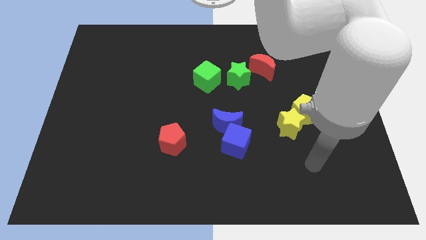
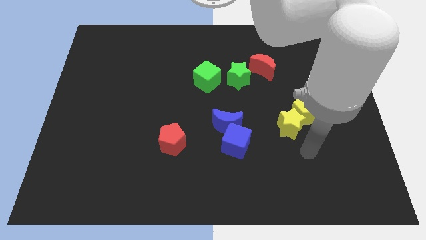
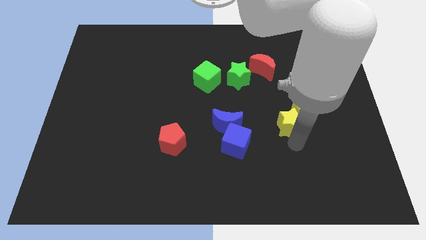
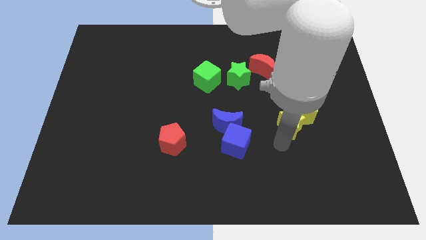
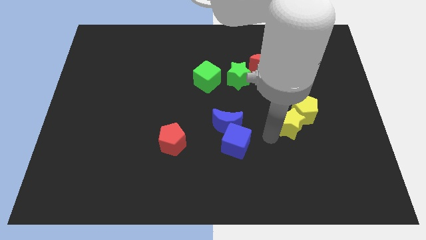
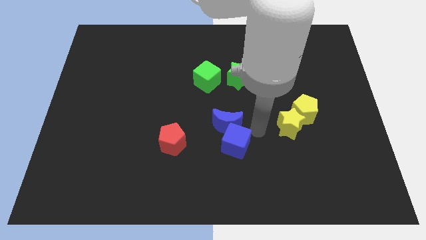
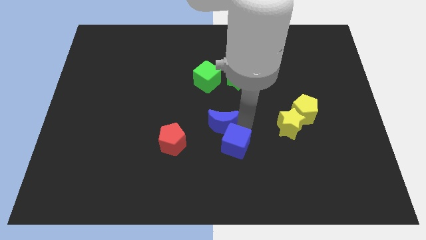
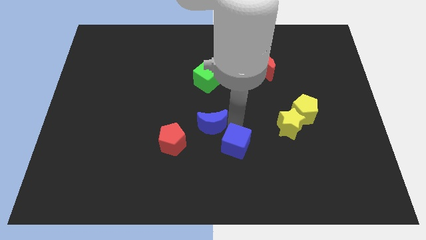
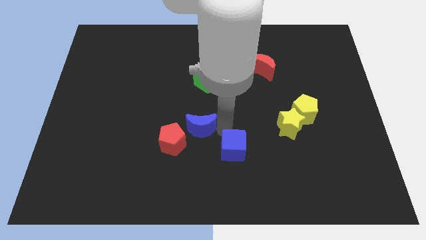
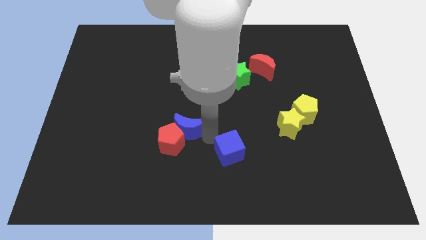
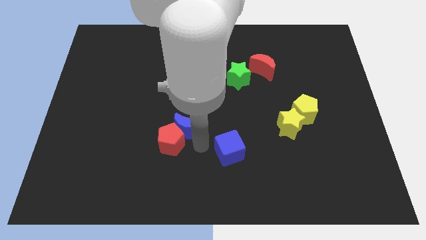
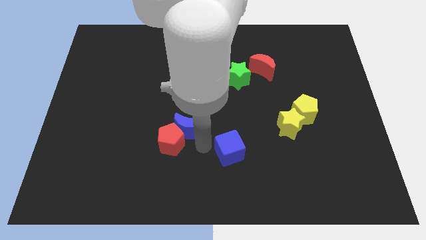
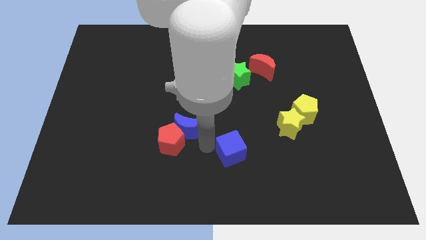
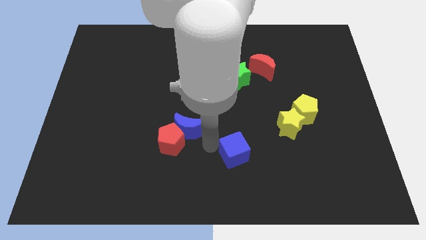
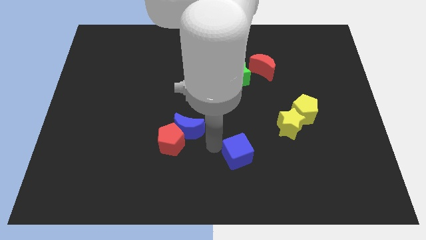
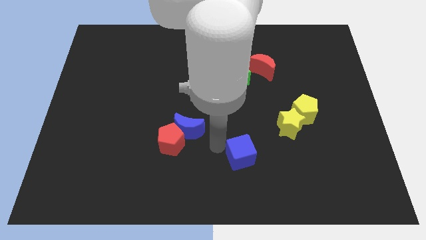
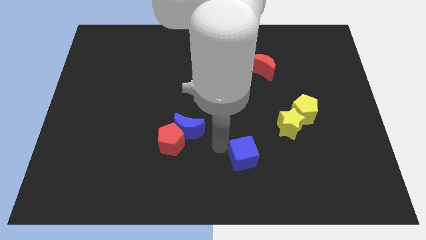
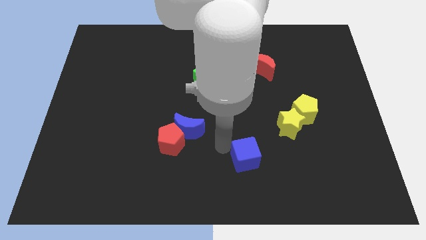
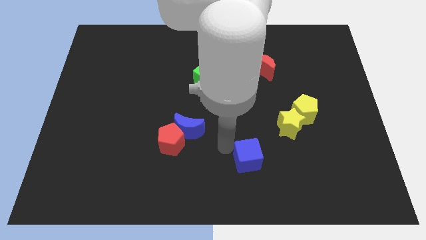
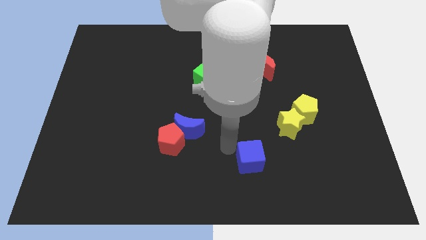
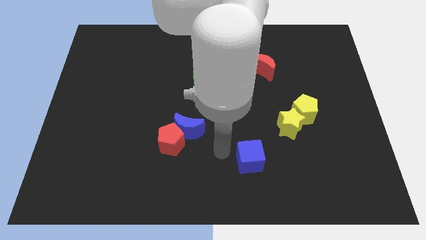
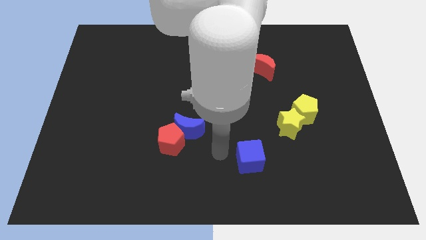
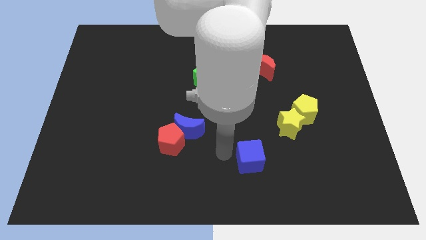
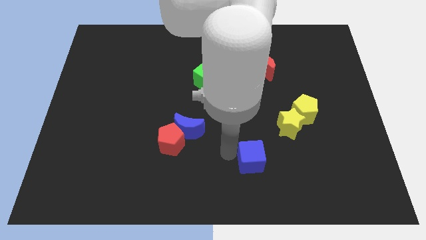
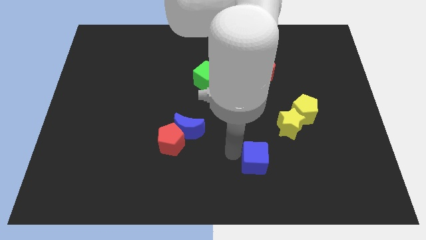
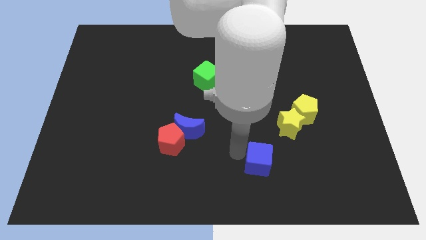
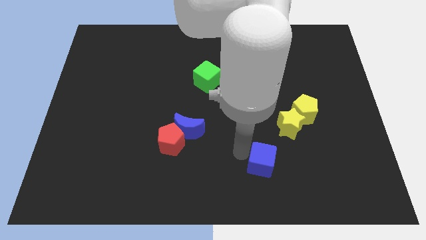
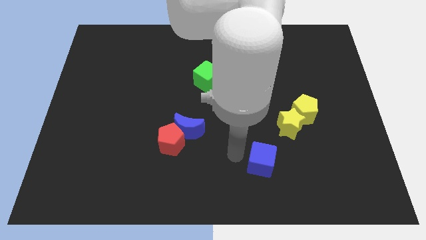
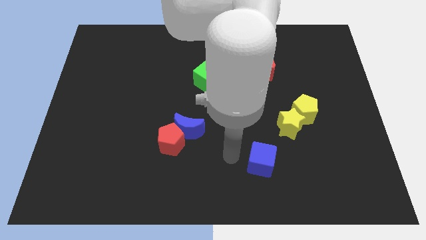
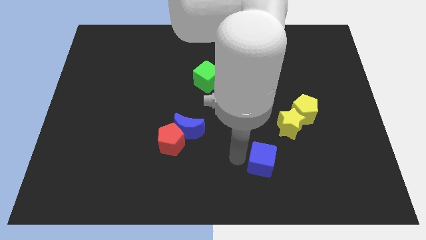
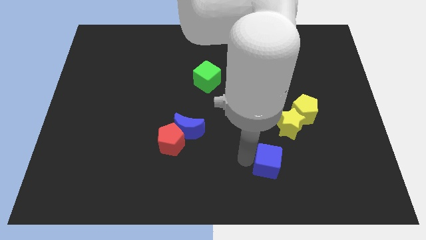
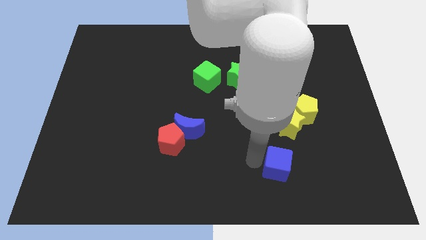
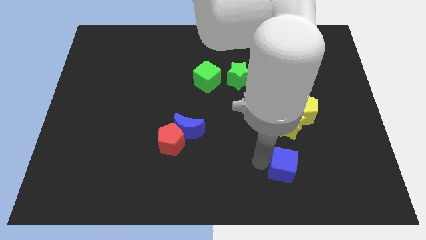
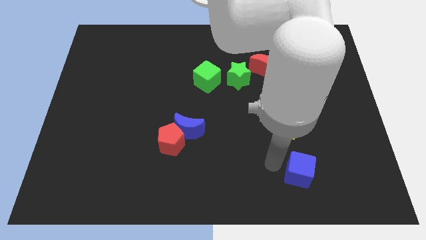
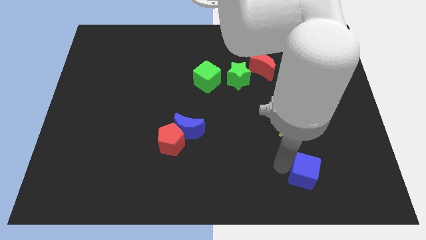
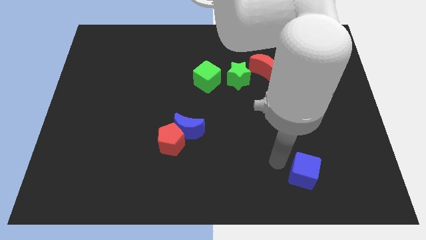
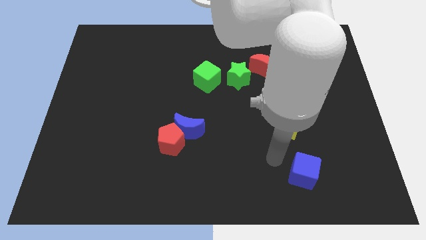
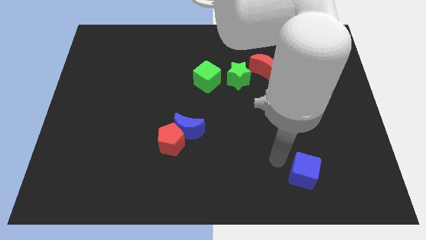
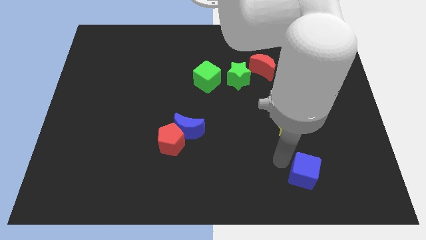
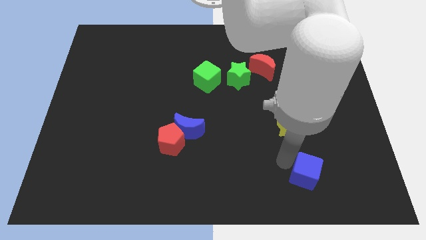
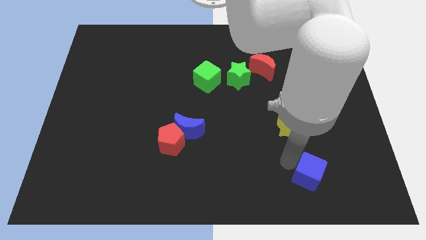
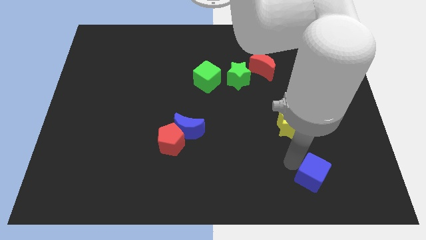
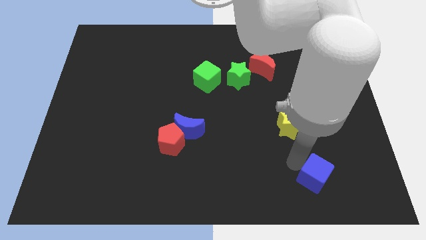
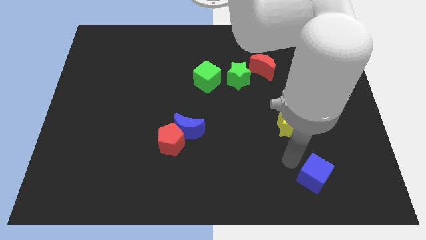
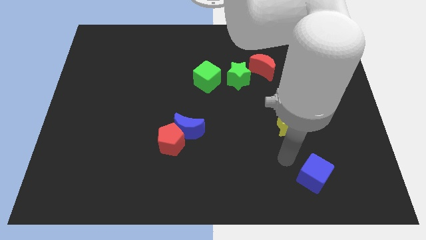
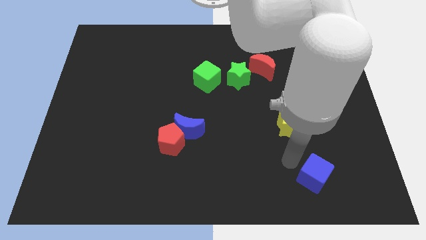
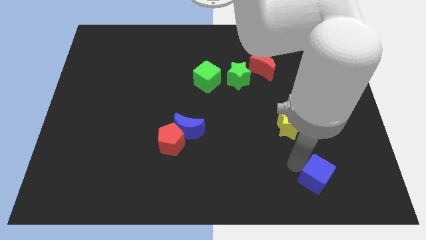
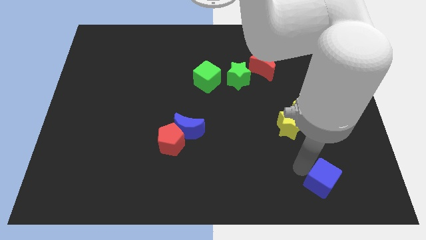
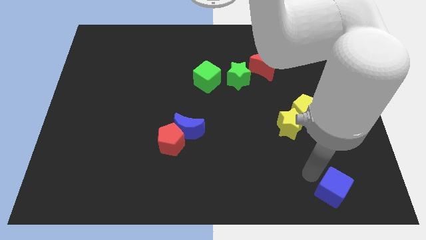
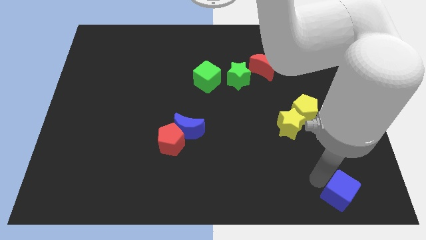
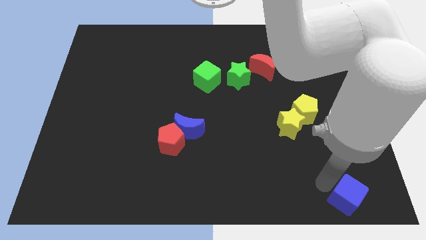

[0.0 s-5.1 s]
push the blue cube to the bottom right of the board

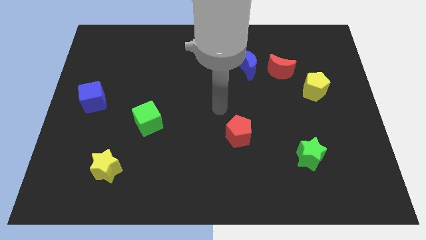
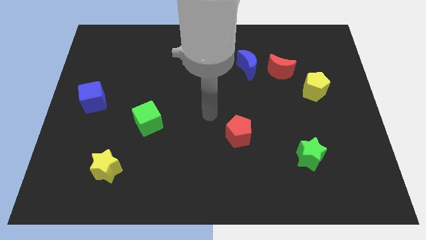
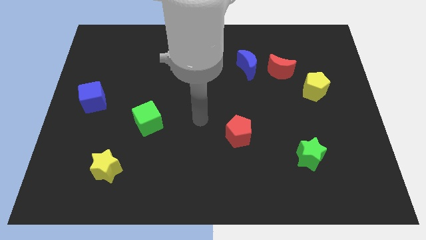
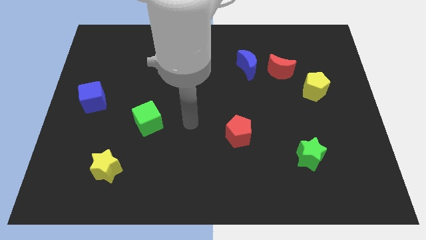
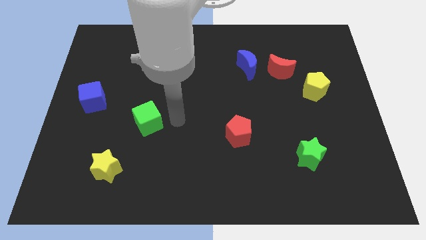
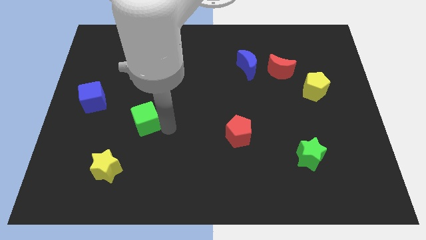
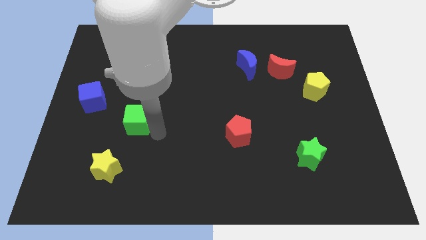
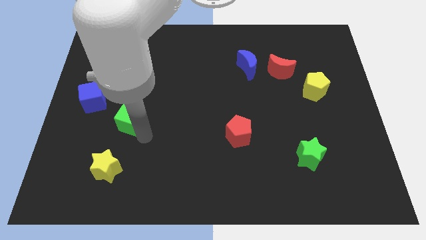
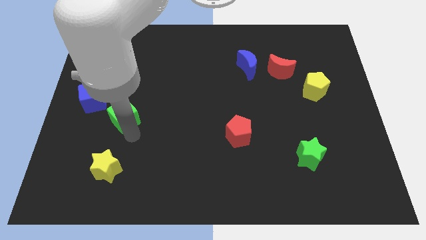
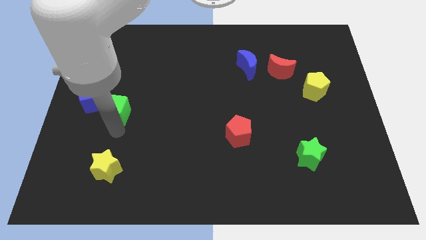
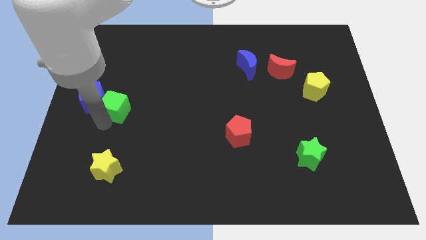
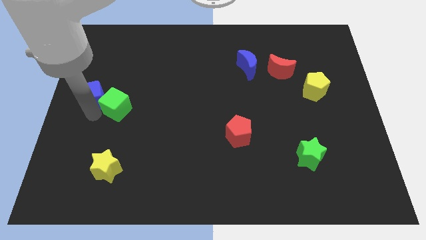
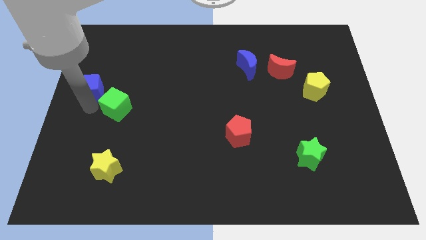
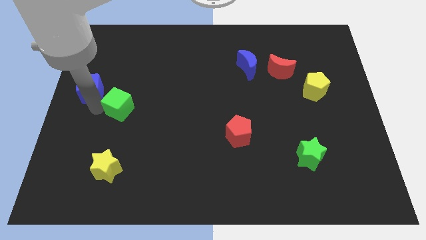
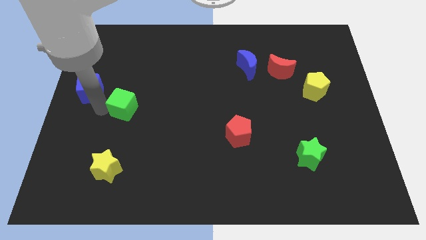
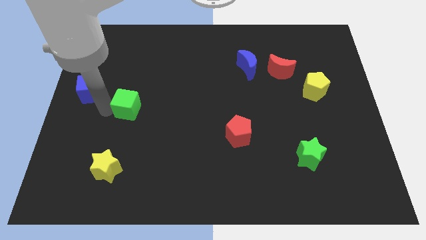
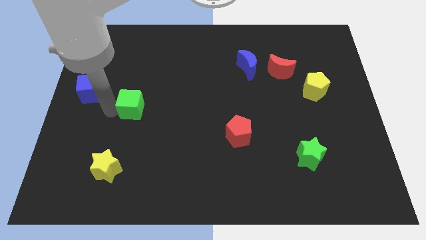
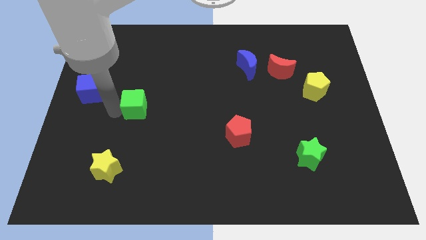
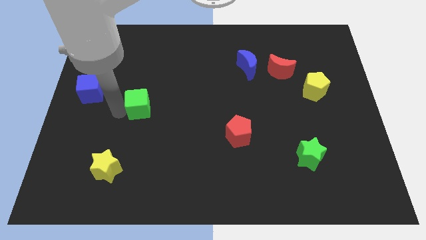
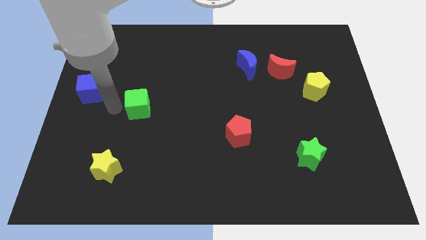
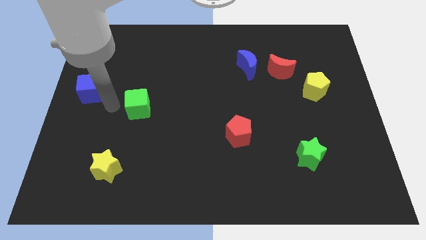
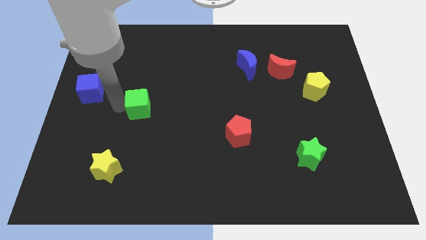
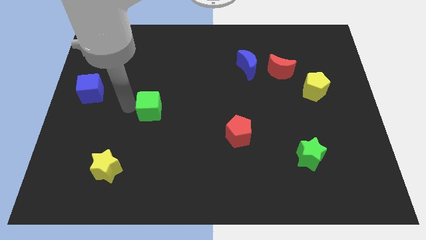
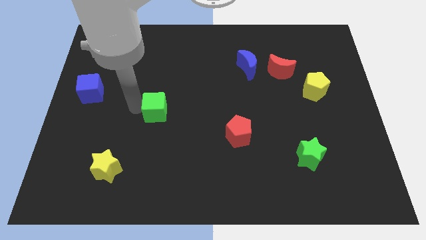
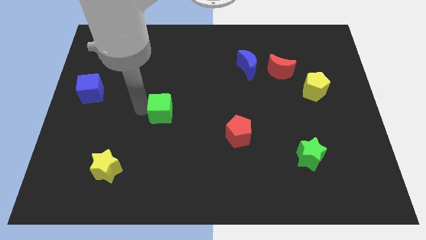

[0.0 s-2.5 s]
push the green cube to the middle of the board
